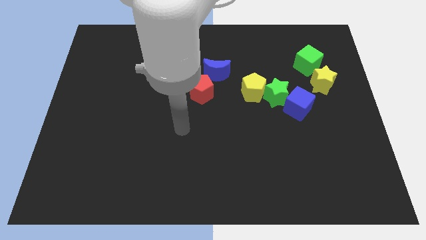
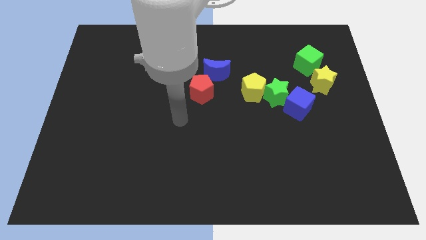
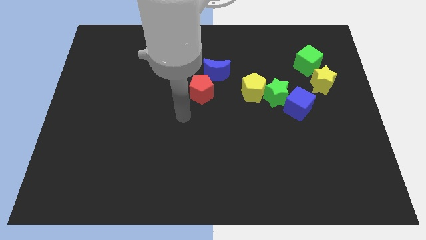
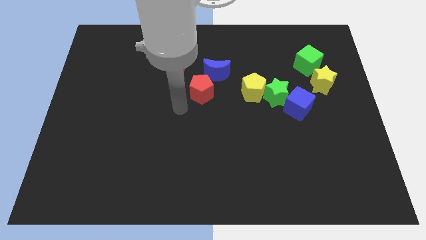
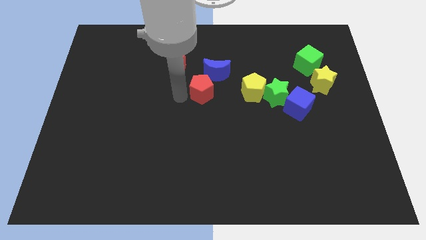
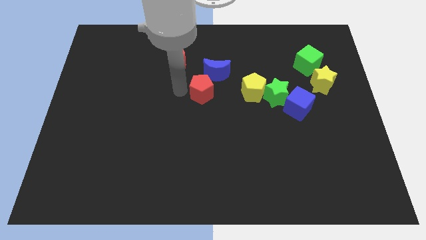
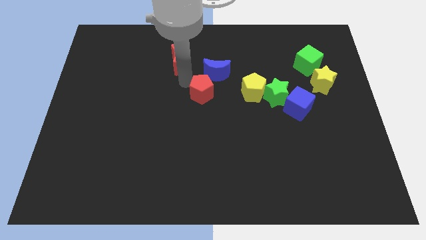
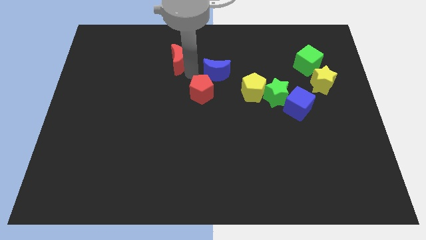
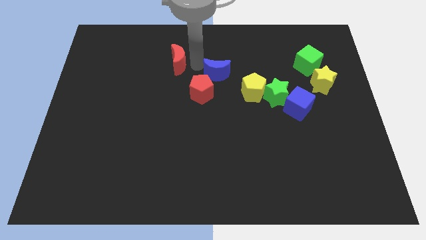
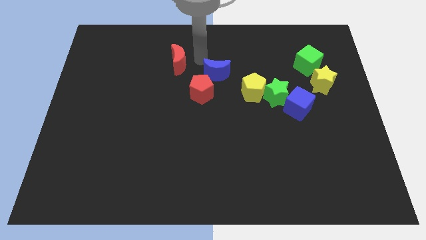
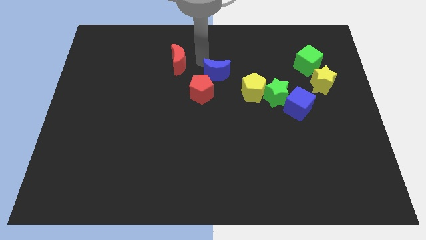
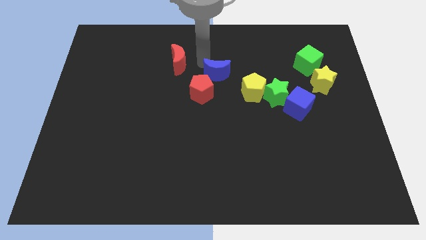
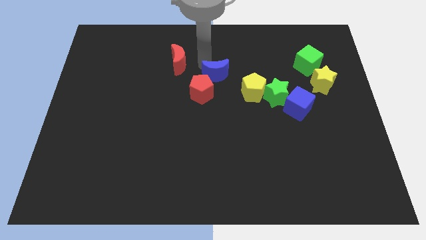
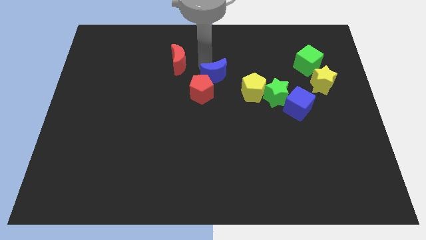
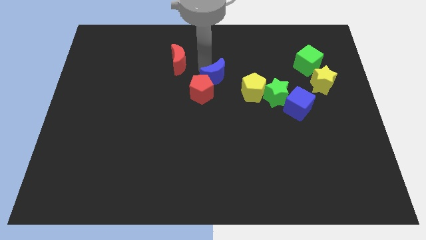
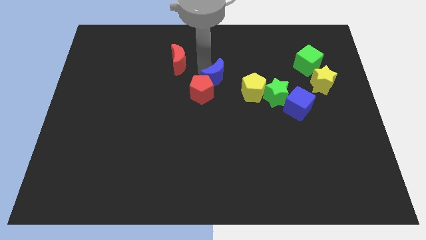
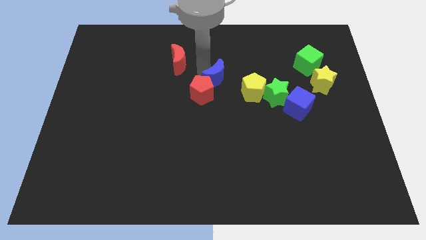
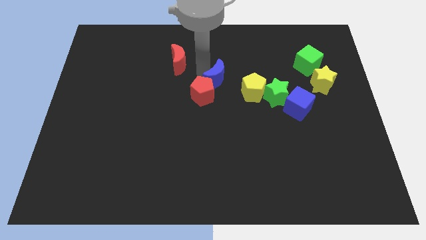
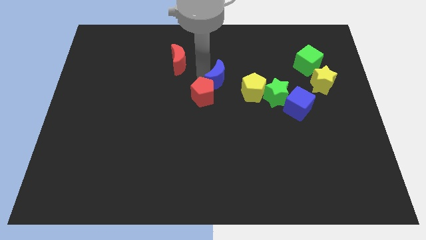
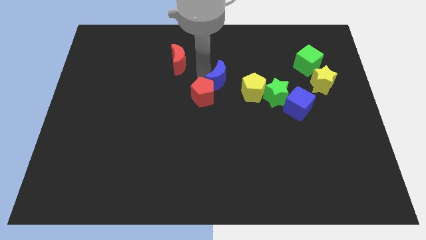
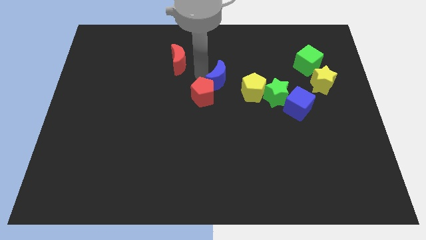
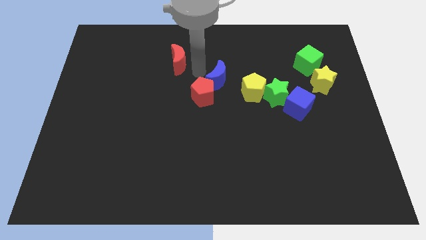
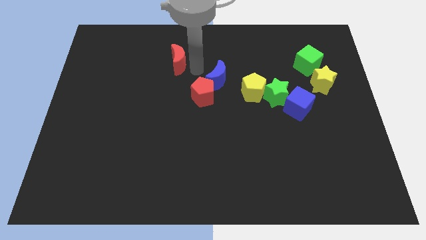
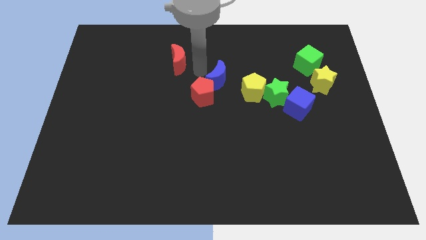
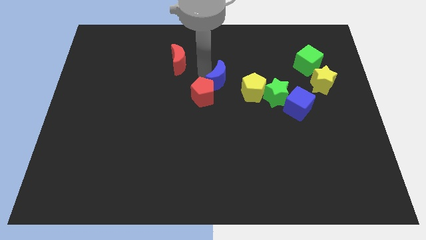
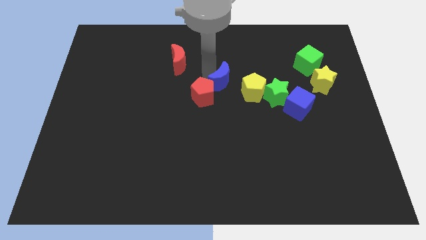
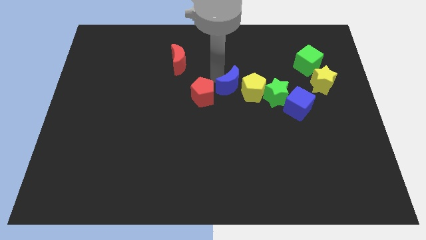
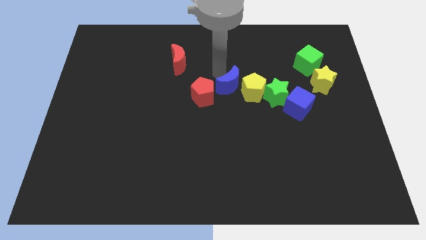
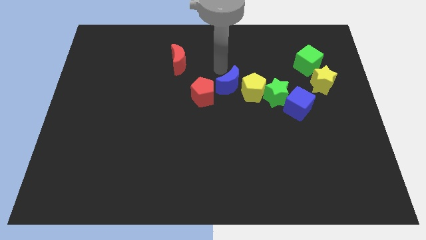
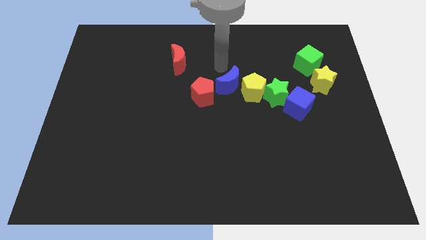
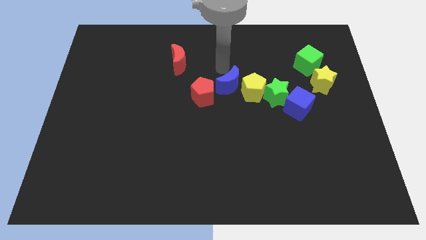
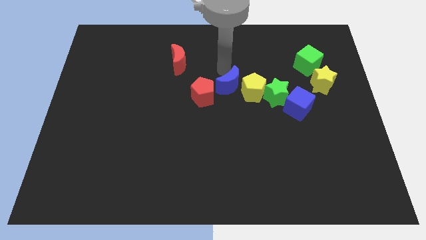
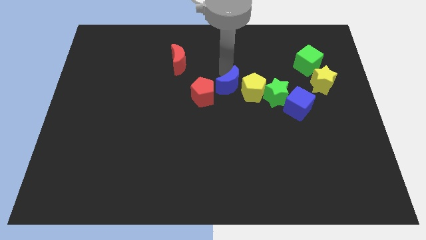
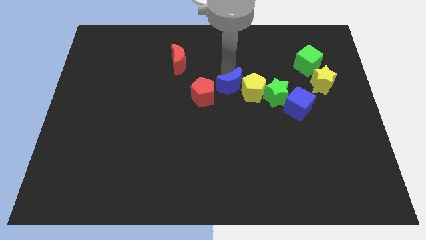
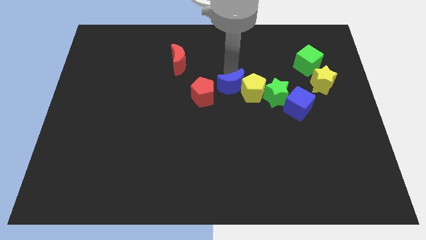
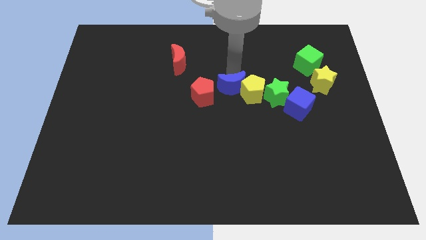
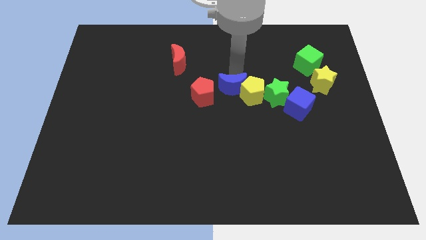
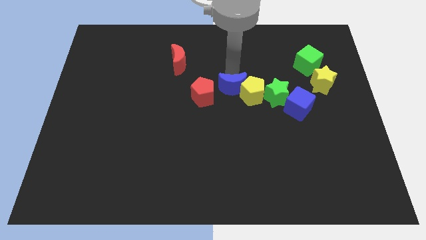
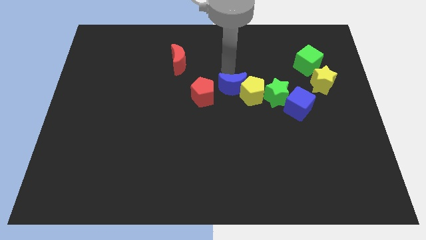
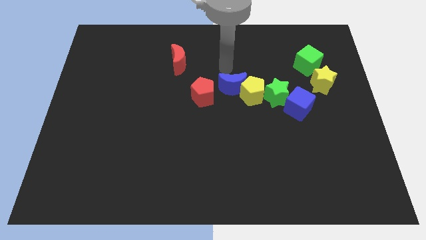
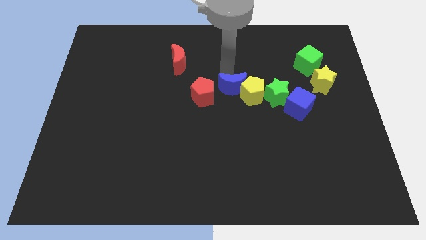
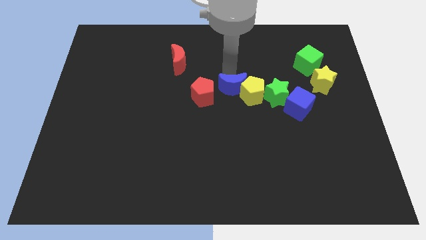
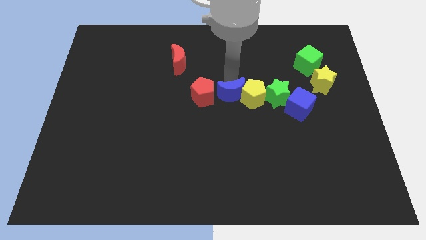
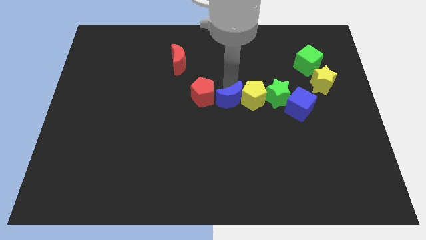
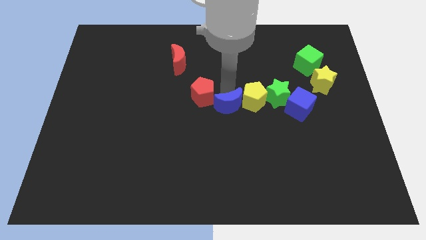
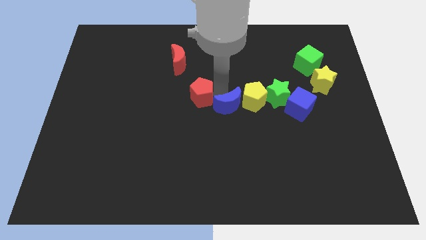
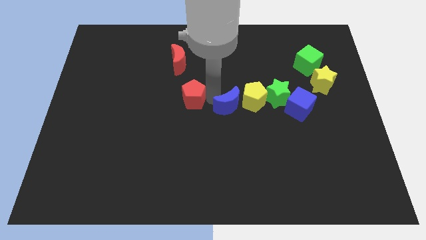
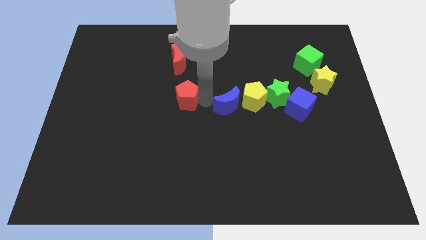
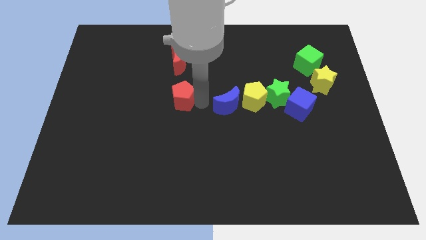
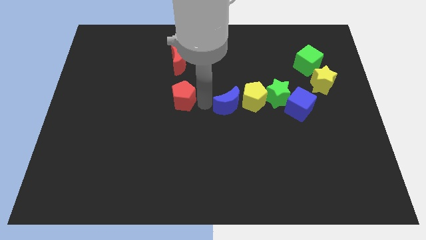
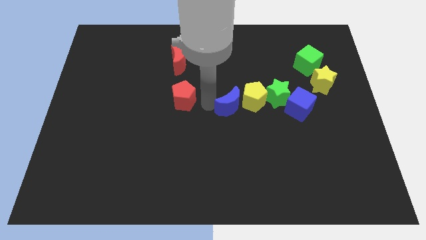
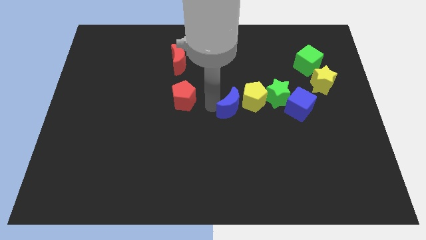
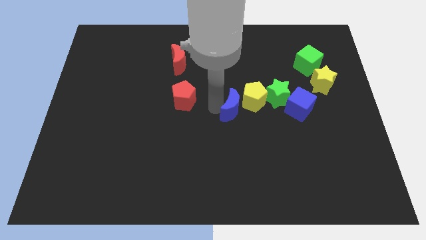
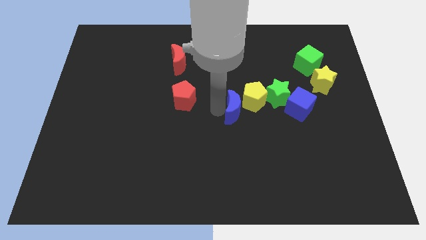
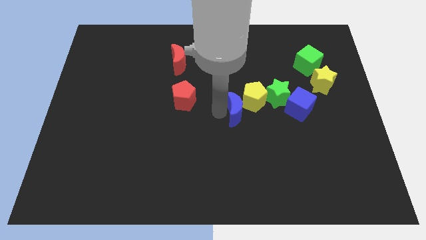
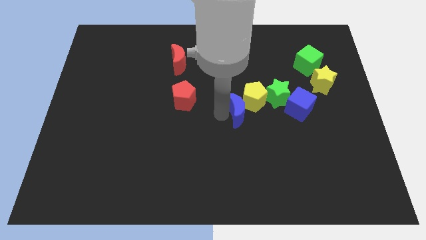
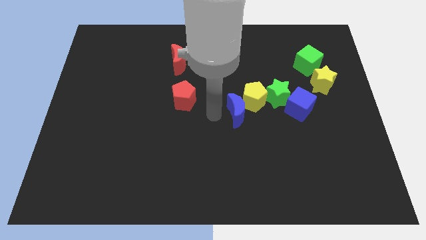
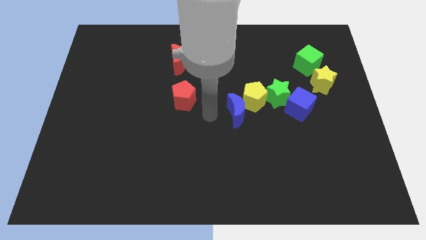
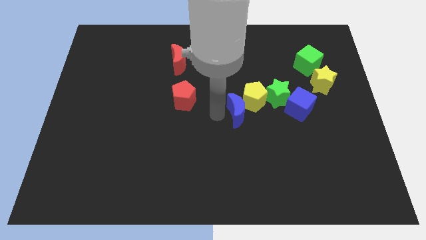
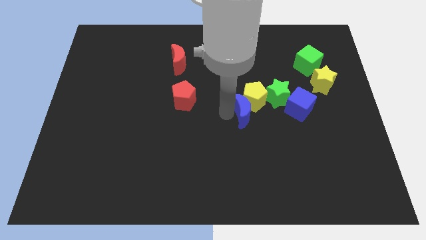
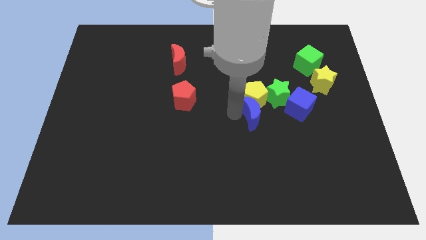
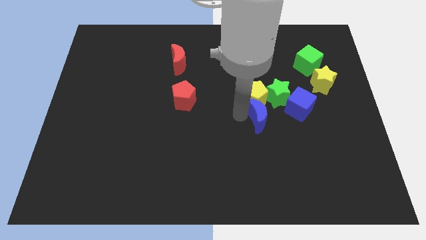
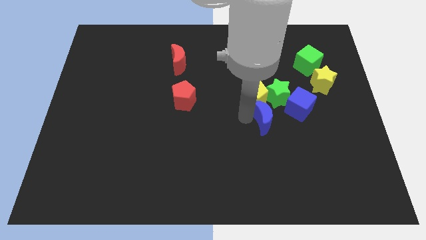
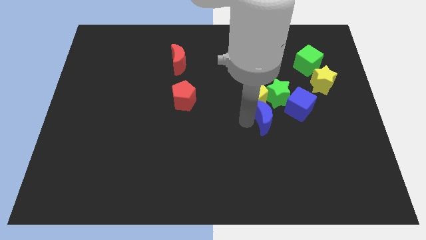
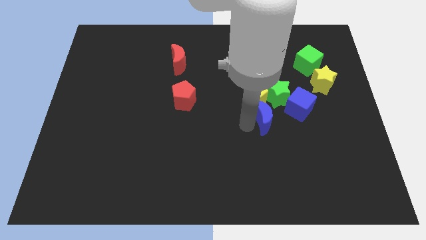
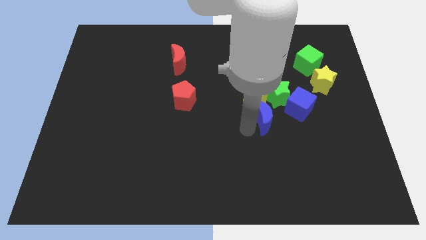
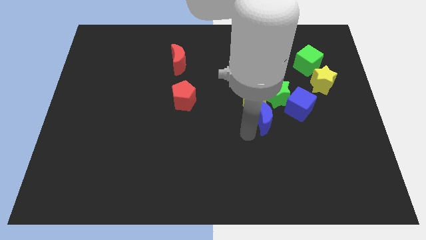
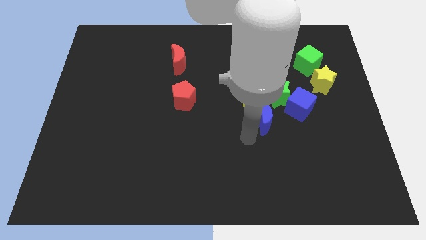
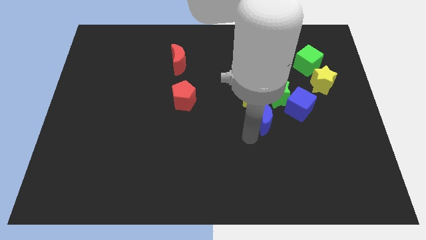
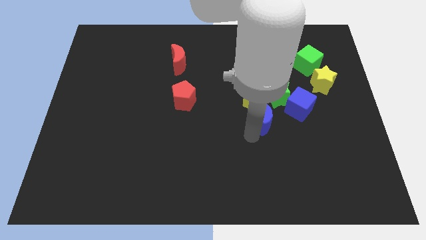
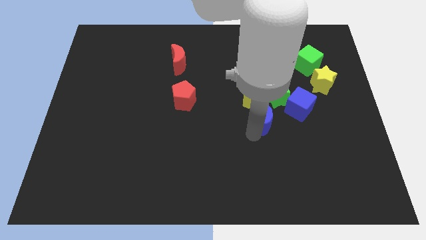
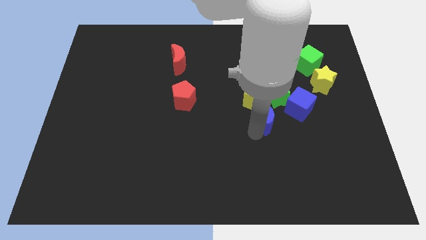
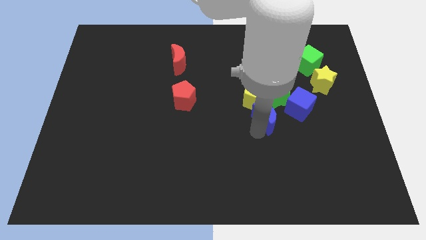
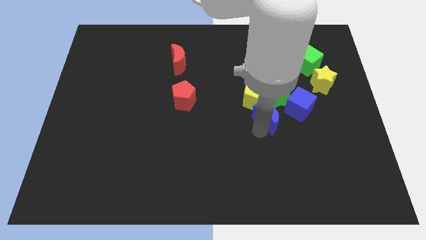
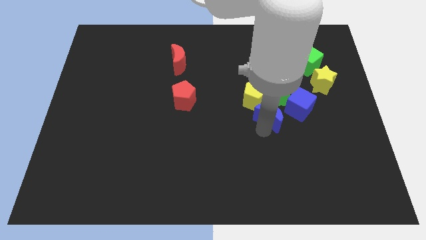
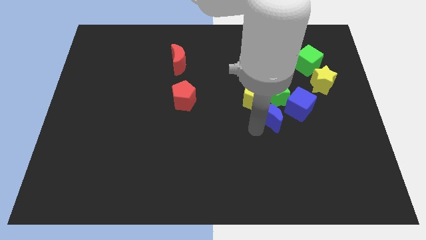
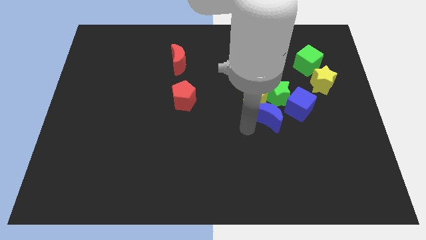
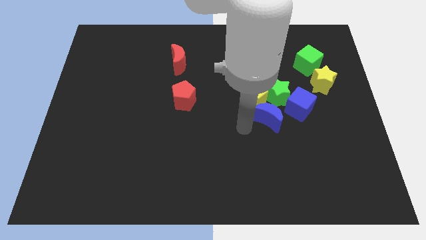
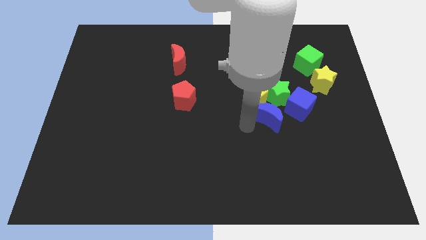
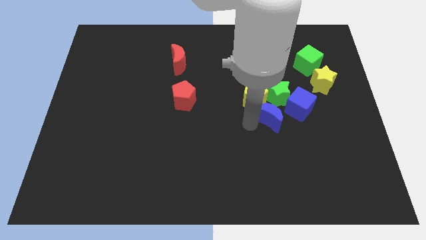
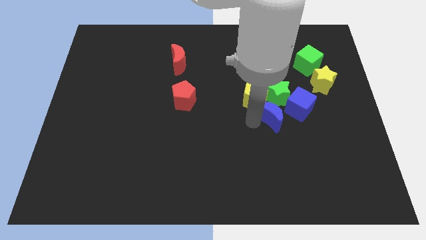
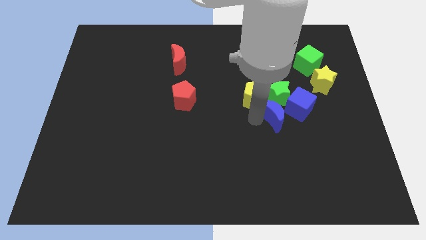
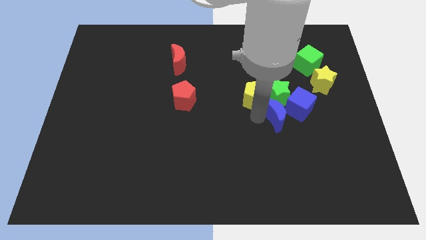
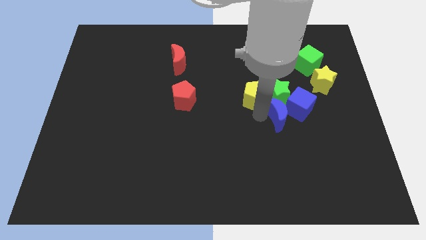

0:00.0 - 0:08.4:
slide the blue moon next to the blue cube
